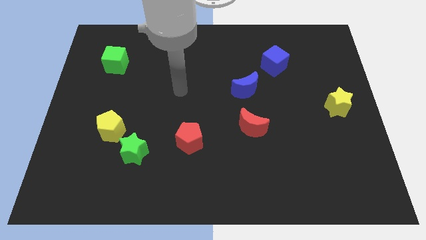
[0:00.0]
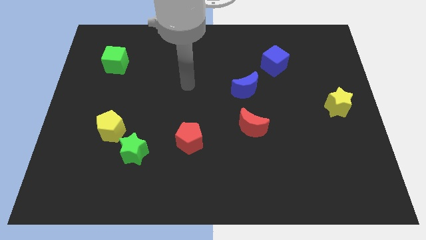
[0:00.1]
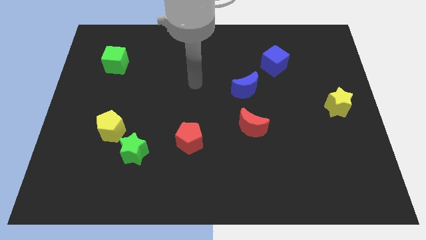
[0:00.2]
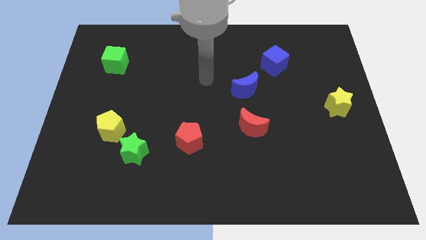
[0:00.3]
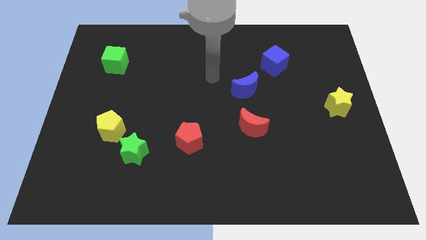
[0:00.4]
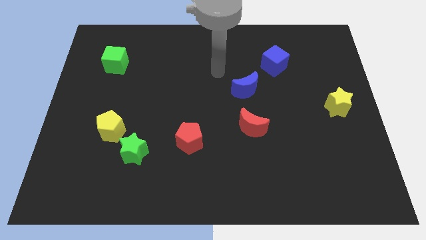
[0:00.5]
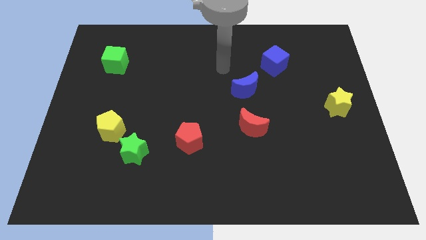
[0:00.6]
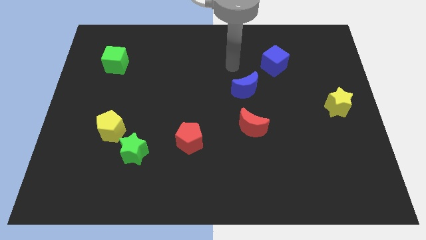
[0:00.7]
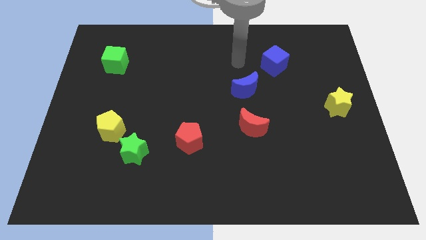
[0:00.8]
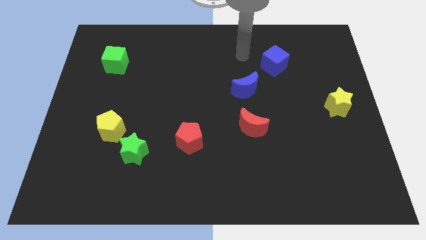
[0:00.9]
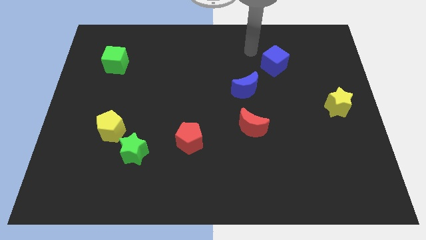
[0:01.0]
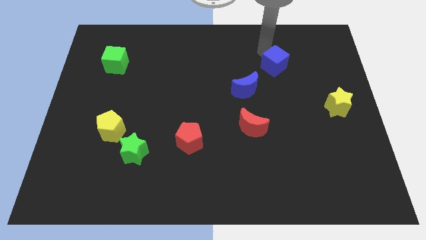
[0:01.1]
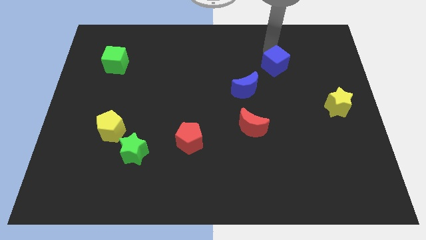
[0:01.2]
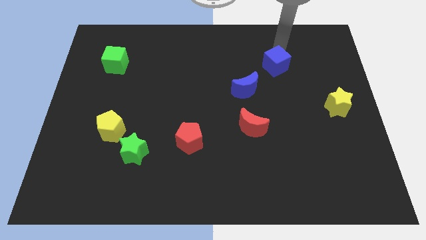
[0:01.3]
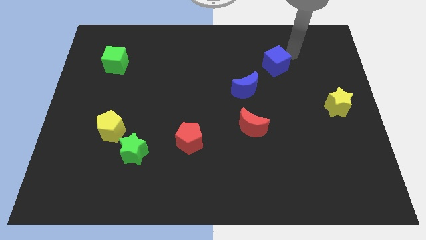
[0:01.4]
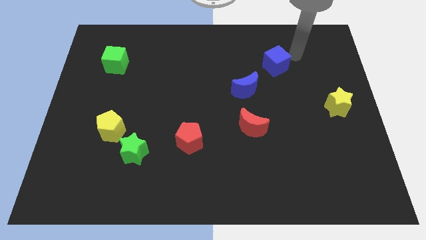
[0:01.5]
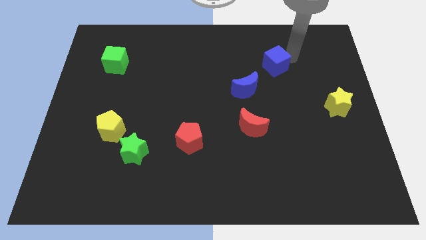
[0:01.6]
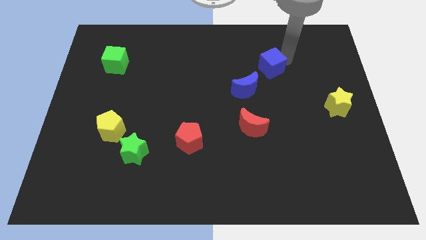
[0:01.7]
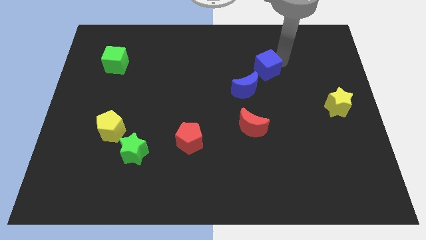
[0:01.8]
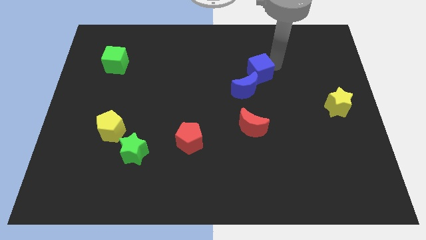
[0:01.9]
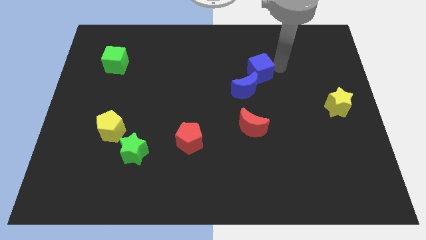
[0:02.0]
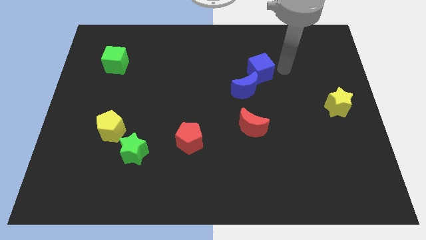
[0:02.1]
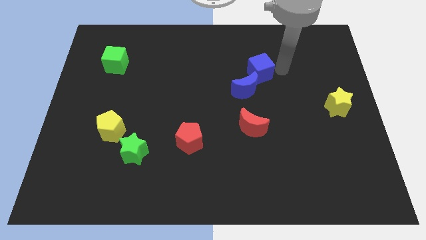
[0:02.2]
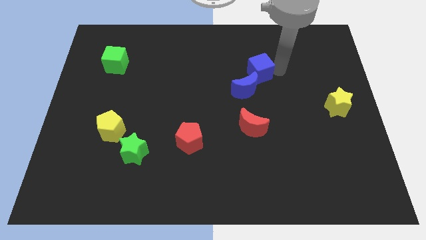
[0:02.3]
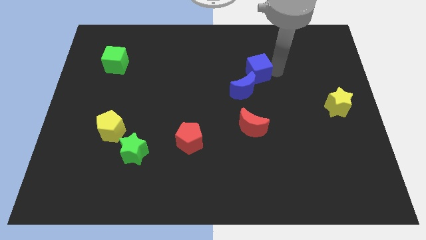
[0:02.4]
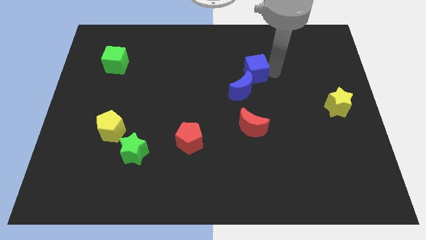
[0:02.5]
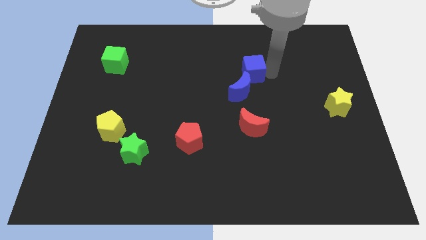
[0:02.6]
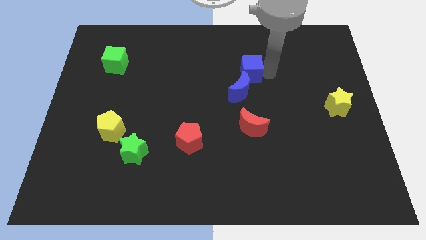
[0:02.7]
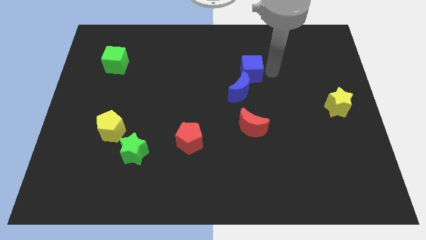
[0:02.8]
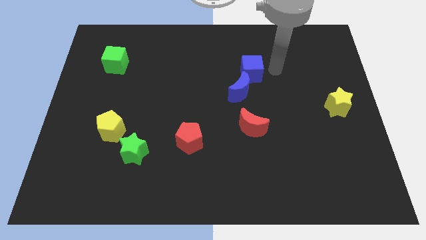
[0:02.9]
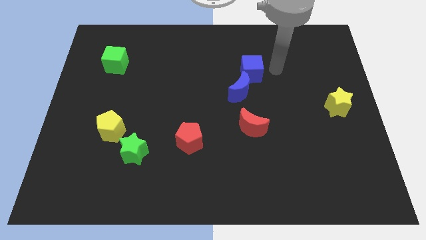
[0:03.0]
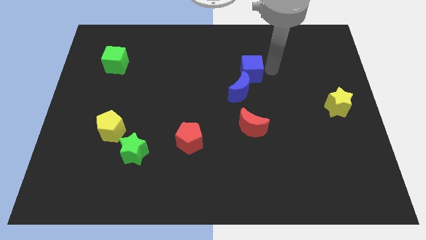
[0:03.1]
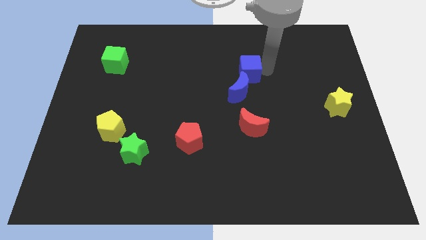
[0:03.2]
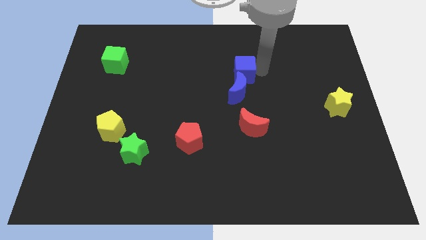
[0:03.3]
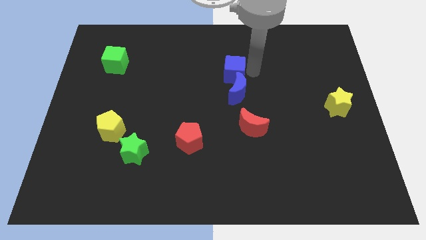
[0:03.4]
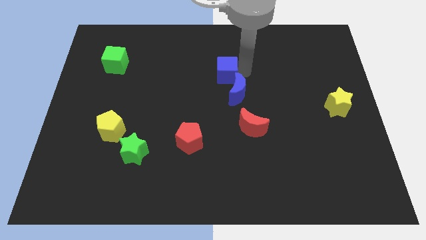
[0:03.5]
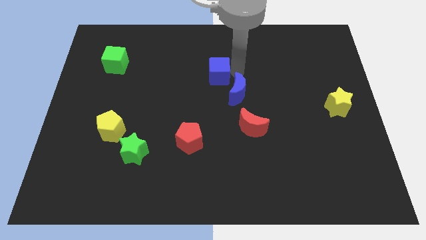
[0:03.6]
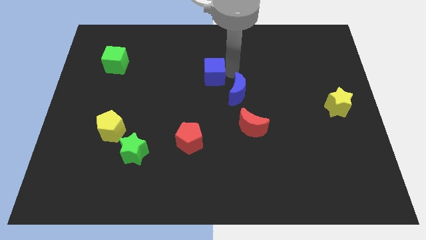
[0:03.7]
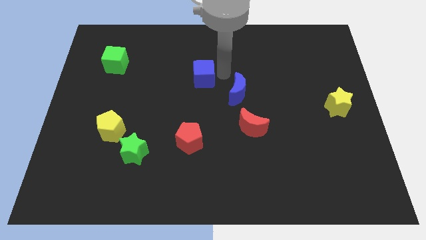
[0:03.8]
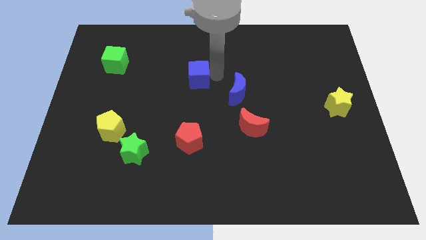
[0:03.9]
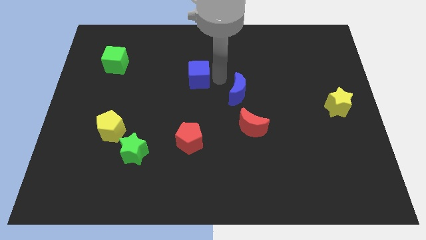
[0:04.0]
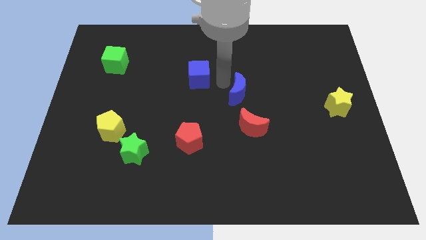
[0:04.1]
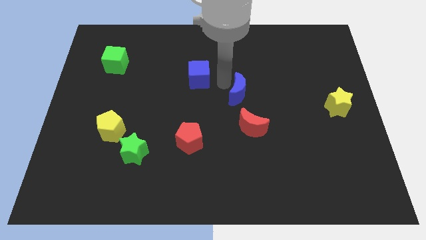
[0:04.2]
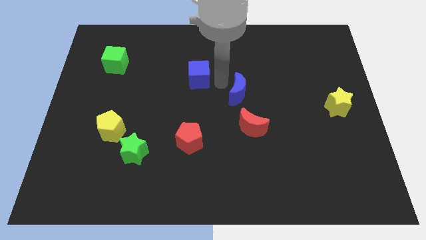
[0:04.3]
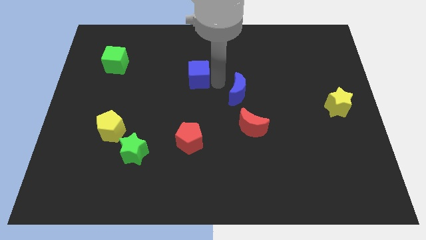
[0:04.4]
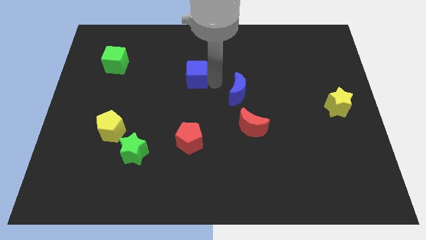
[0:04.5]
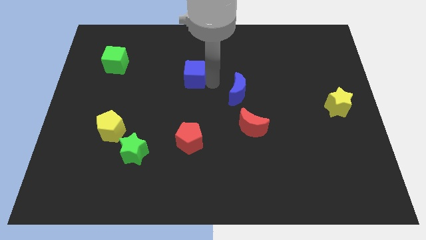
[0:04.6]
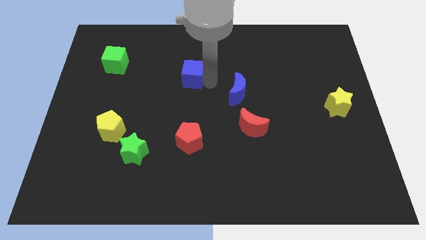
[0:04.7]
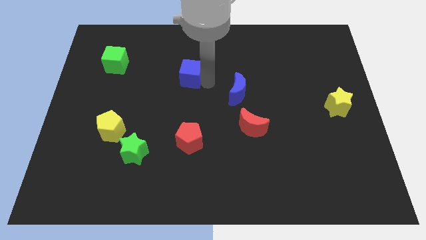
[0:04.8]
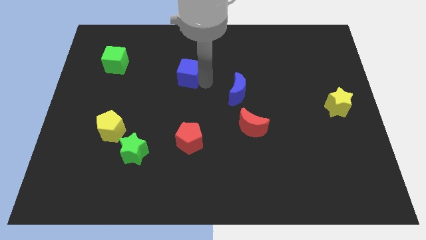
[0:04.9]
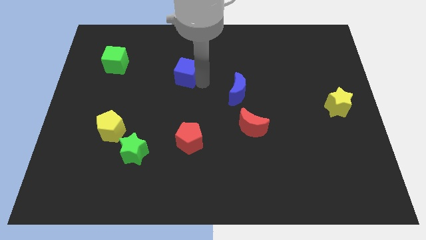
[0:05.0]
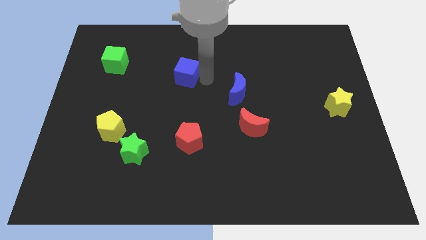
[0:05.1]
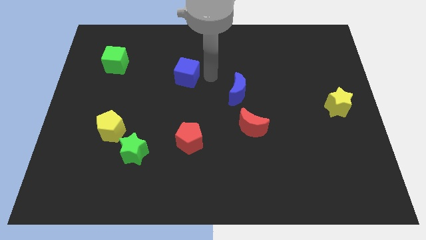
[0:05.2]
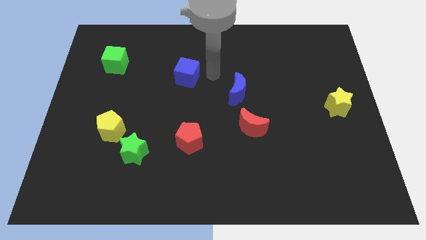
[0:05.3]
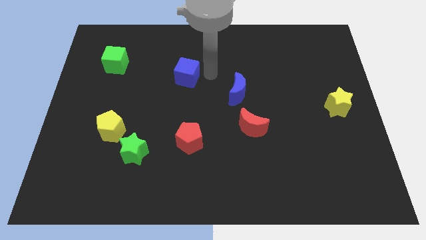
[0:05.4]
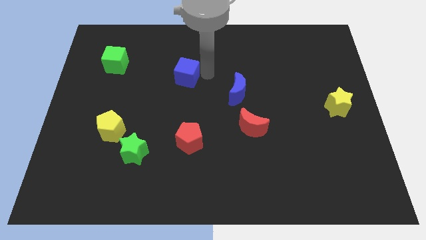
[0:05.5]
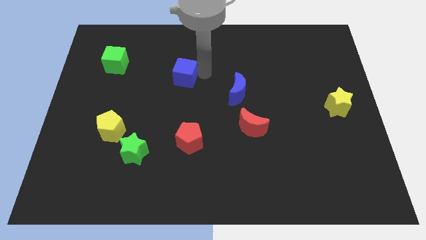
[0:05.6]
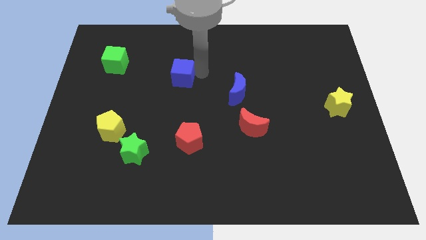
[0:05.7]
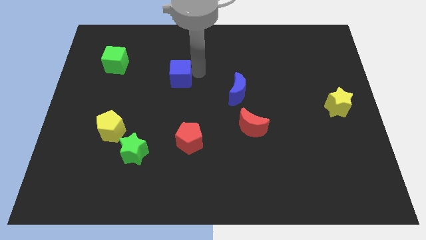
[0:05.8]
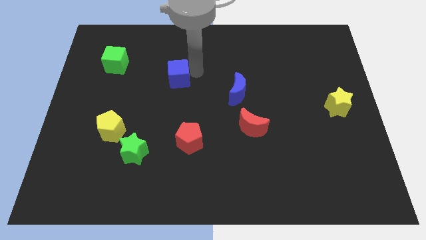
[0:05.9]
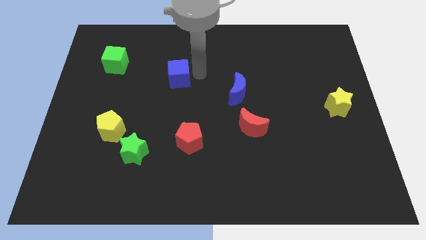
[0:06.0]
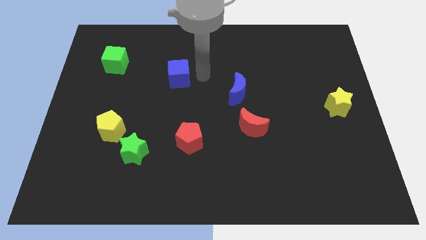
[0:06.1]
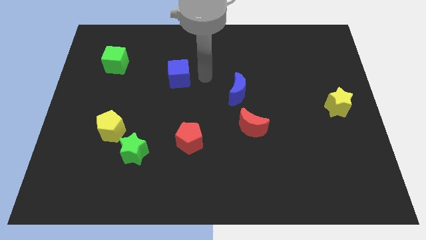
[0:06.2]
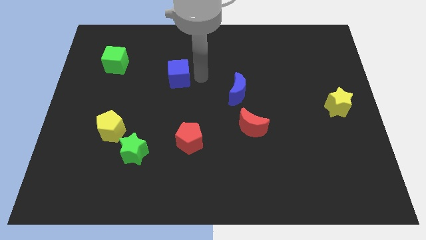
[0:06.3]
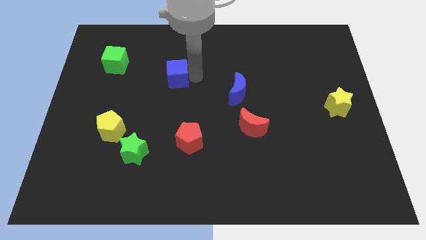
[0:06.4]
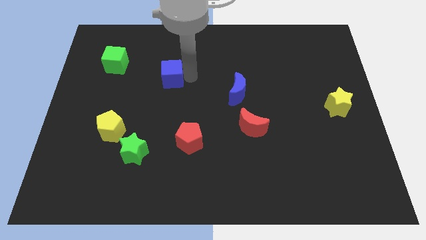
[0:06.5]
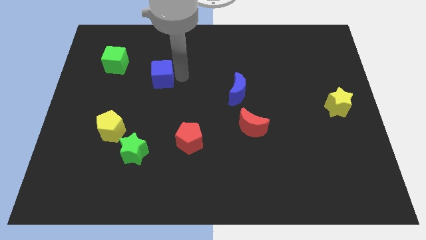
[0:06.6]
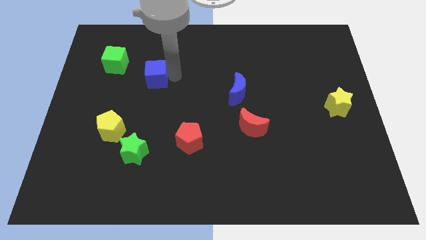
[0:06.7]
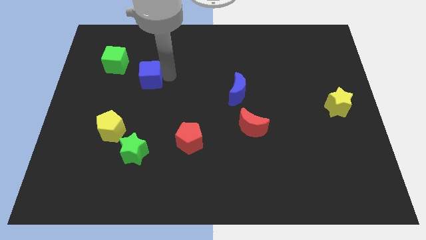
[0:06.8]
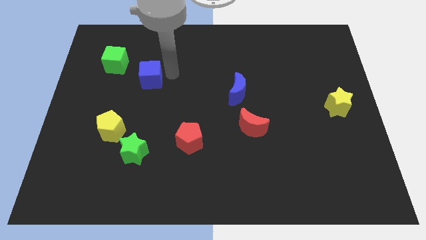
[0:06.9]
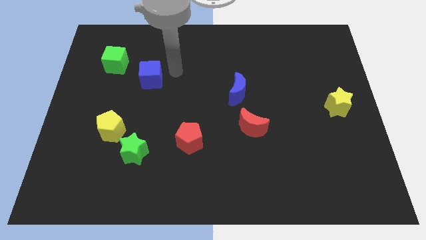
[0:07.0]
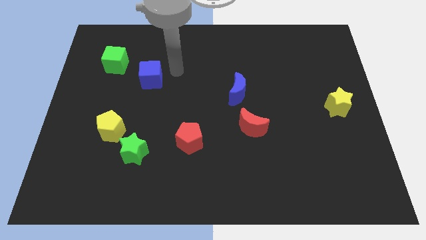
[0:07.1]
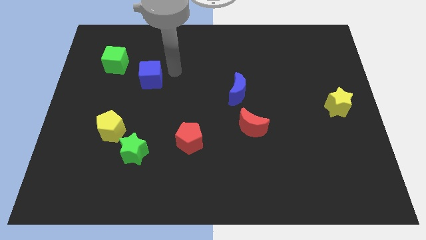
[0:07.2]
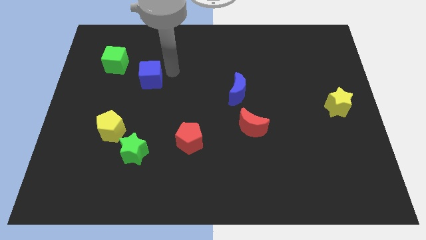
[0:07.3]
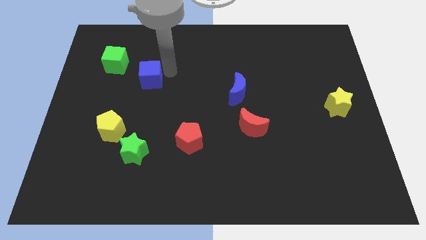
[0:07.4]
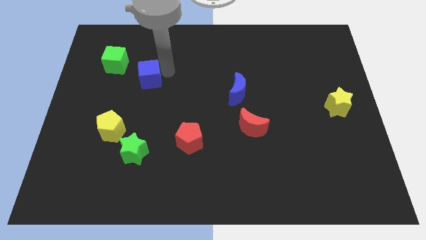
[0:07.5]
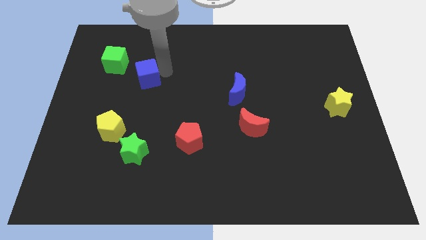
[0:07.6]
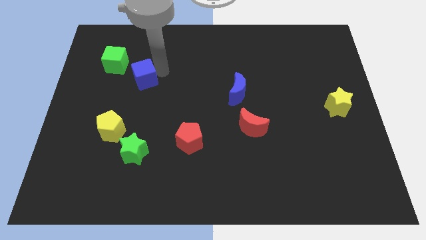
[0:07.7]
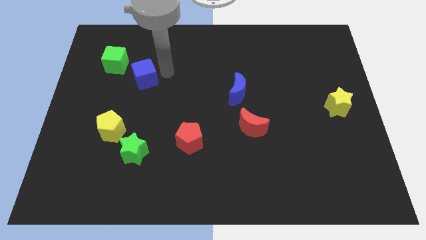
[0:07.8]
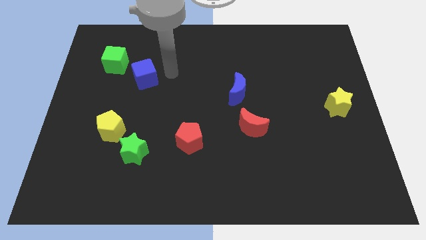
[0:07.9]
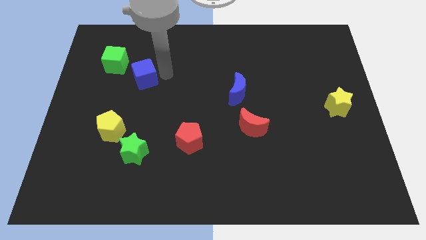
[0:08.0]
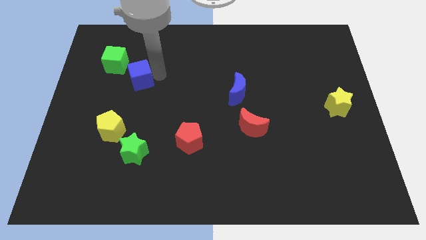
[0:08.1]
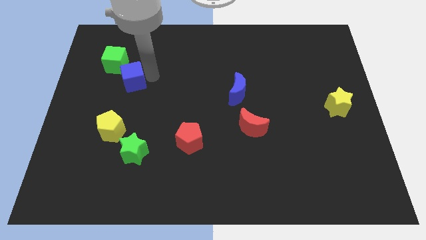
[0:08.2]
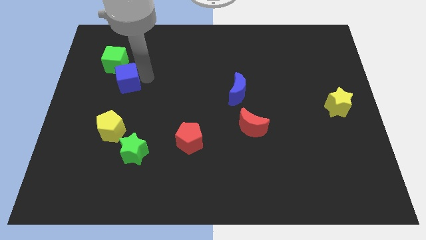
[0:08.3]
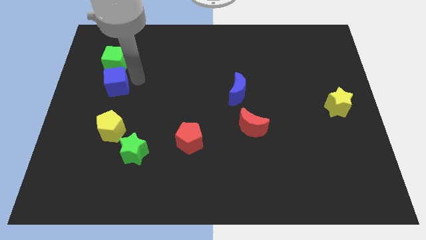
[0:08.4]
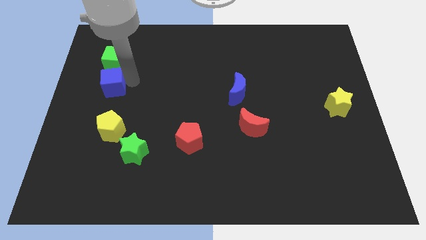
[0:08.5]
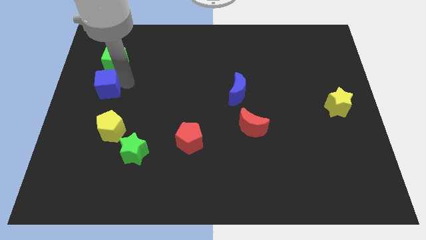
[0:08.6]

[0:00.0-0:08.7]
slide the blue cube to the left side
